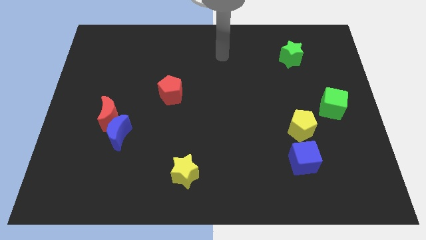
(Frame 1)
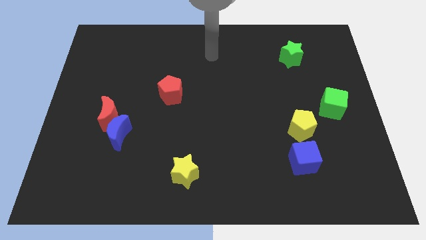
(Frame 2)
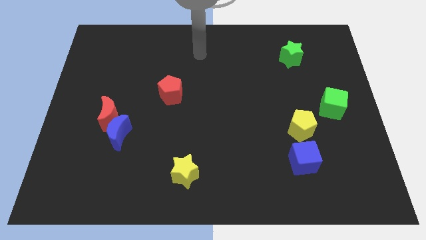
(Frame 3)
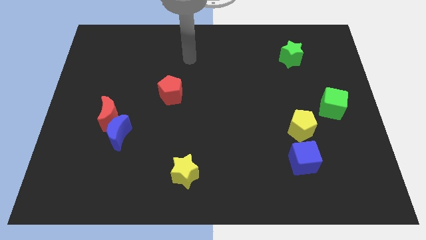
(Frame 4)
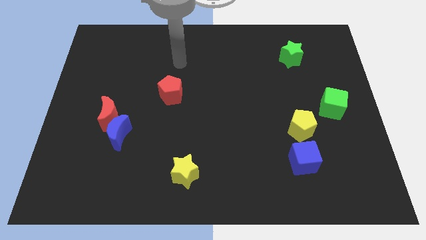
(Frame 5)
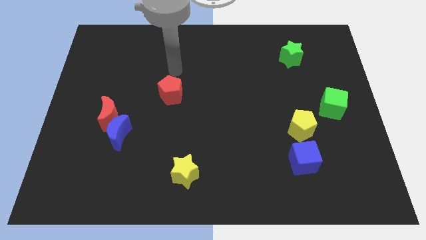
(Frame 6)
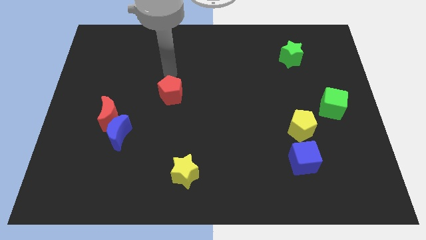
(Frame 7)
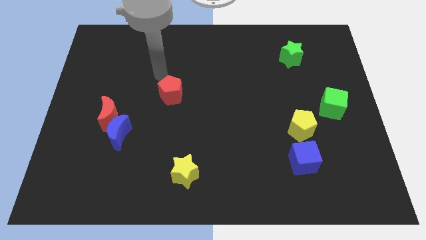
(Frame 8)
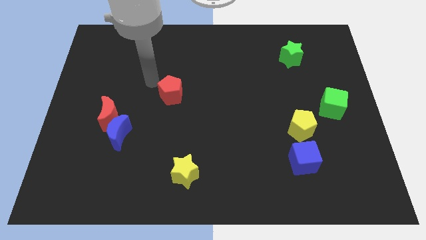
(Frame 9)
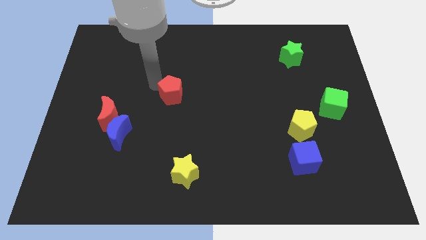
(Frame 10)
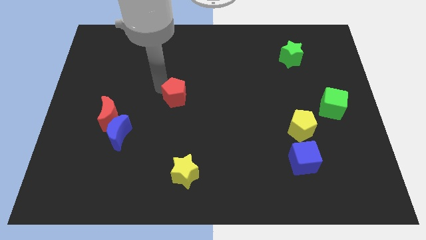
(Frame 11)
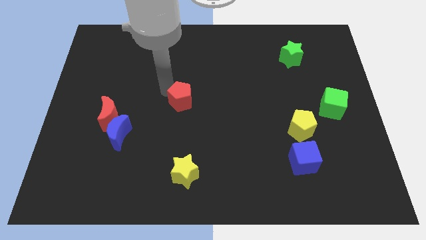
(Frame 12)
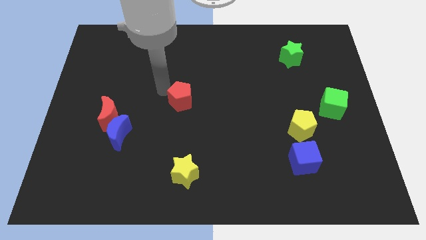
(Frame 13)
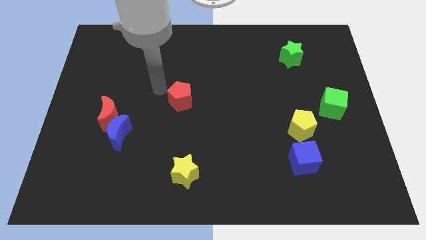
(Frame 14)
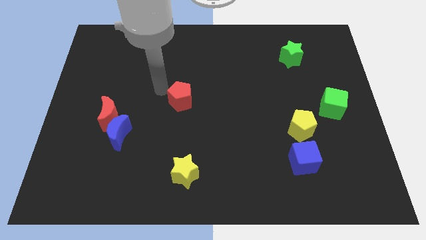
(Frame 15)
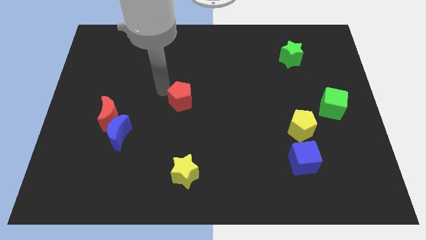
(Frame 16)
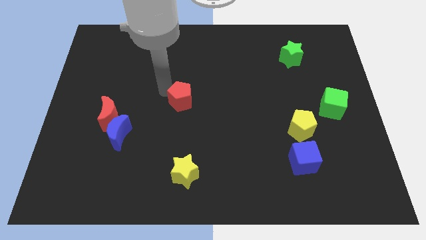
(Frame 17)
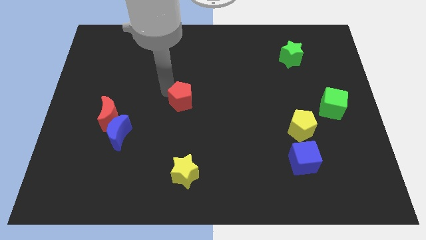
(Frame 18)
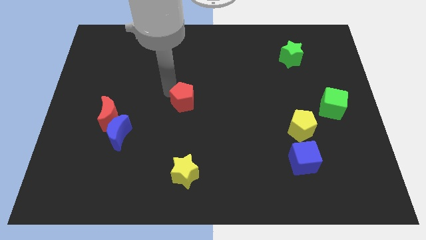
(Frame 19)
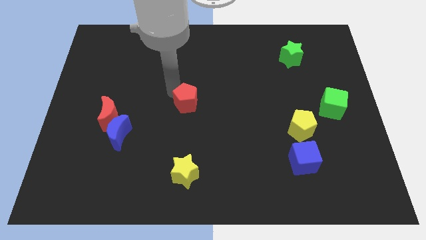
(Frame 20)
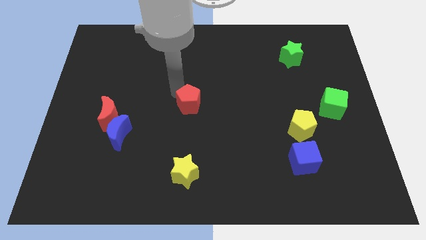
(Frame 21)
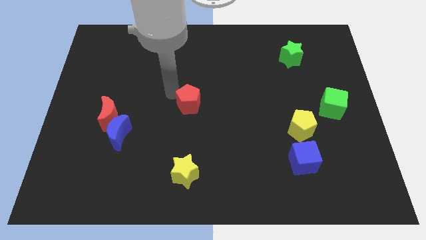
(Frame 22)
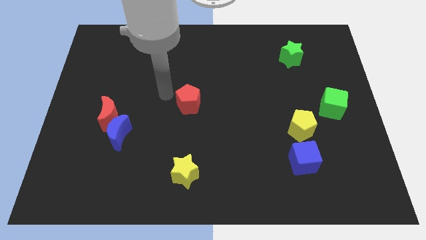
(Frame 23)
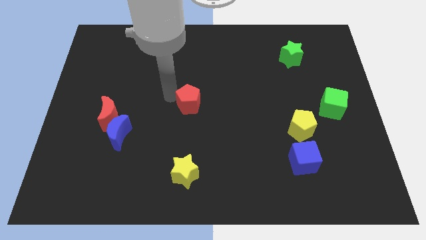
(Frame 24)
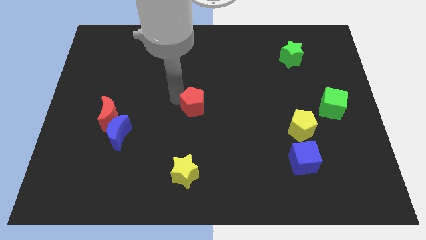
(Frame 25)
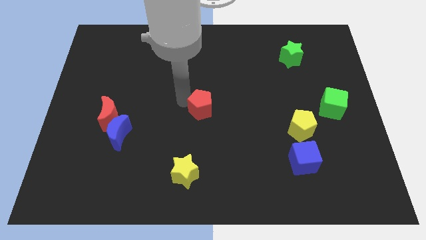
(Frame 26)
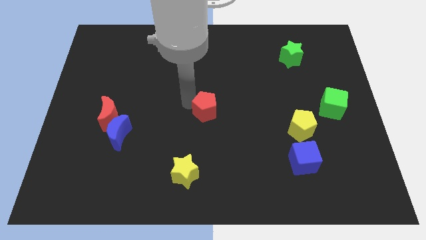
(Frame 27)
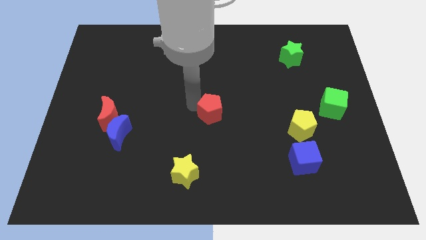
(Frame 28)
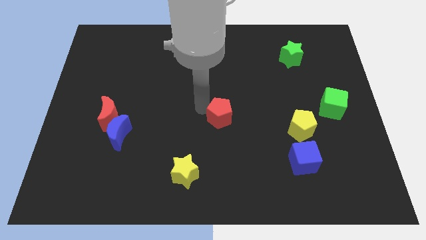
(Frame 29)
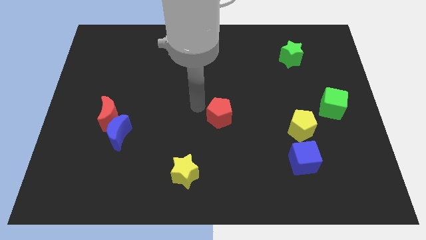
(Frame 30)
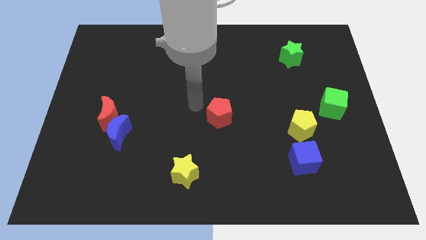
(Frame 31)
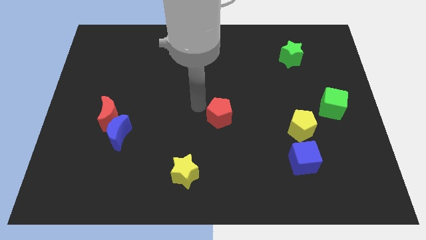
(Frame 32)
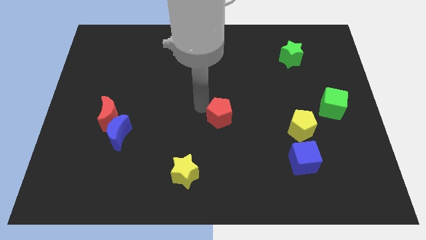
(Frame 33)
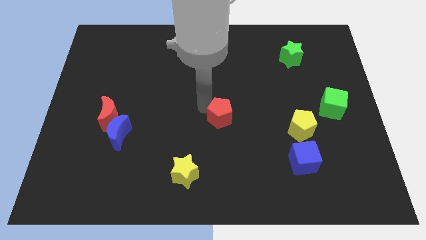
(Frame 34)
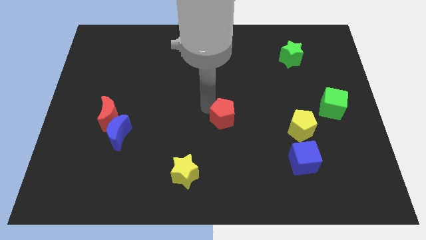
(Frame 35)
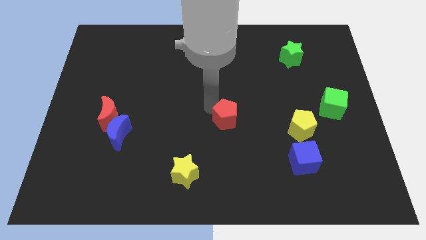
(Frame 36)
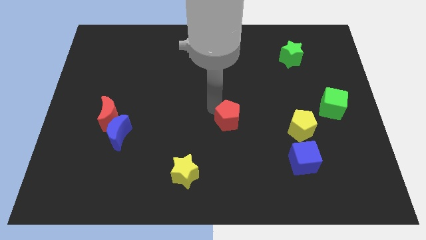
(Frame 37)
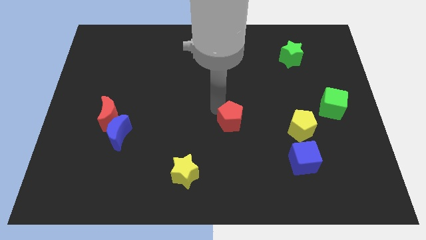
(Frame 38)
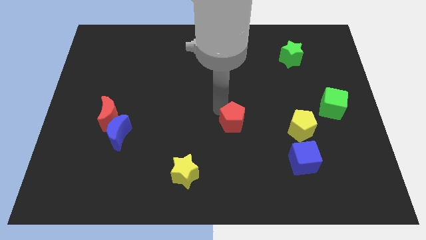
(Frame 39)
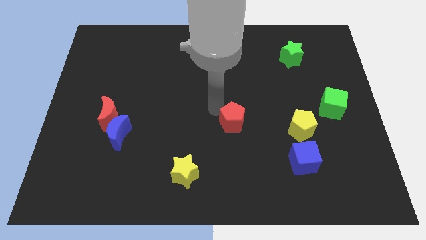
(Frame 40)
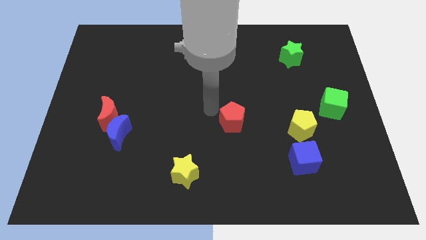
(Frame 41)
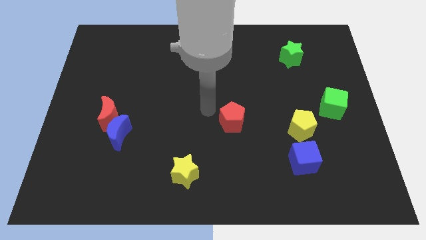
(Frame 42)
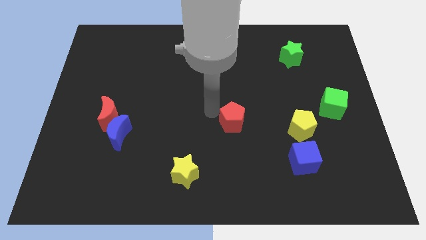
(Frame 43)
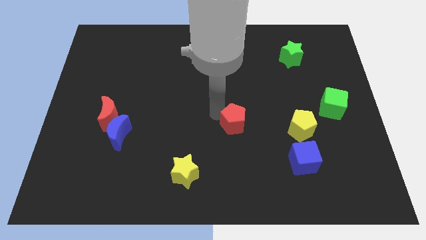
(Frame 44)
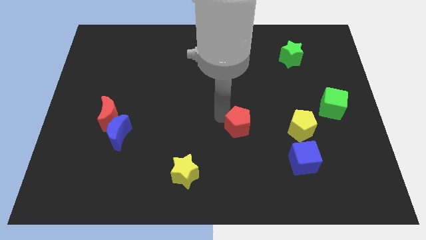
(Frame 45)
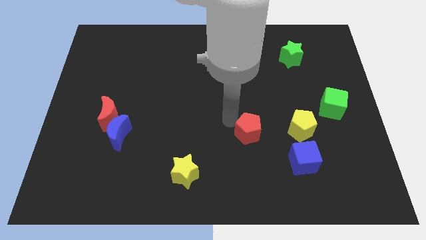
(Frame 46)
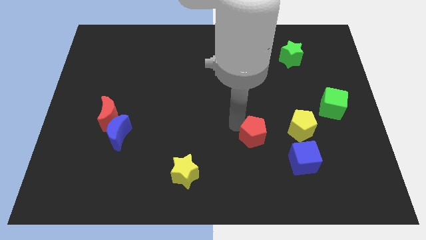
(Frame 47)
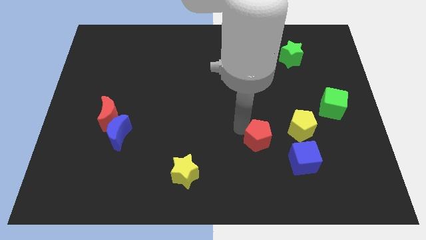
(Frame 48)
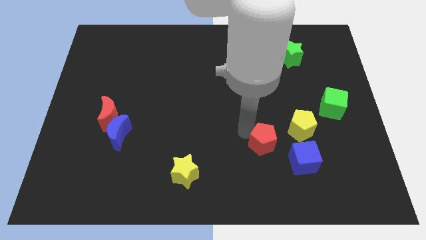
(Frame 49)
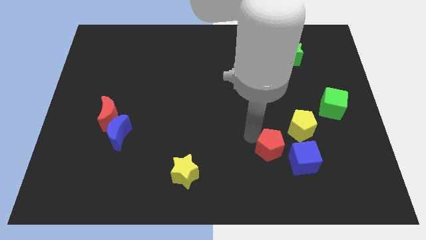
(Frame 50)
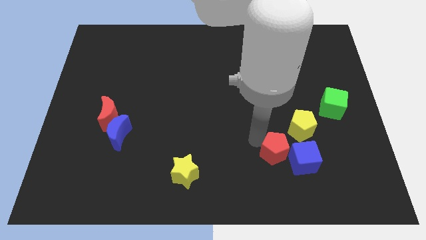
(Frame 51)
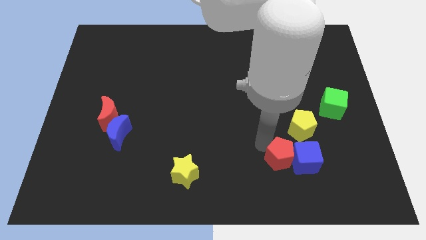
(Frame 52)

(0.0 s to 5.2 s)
move the red pentagon close to the blue cube

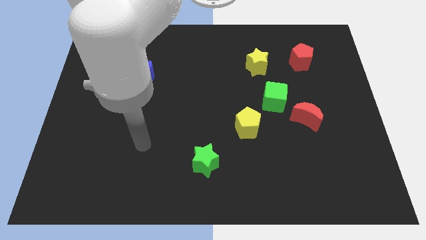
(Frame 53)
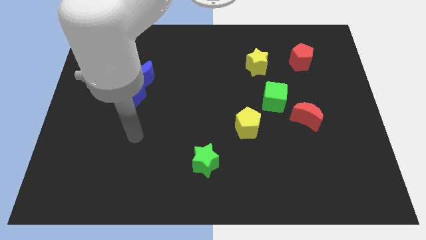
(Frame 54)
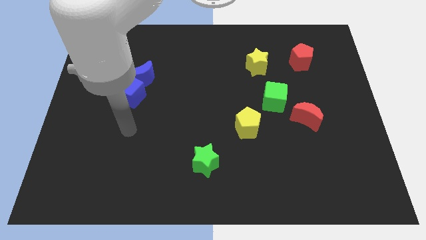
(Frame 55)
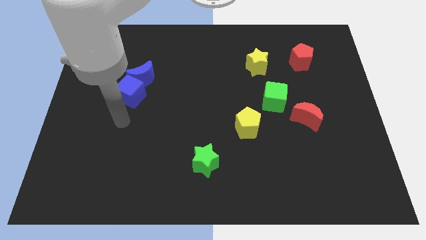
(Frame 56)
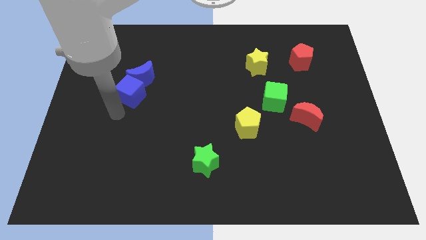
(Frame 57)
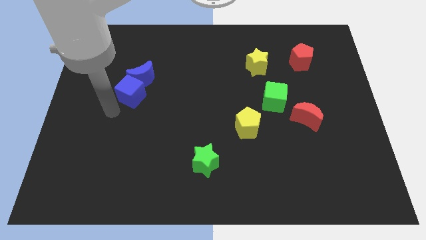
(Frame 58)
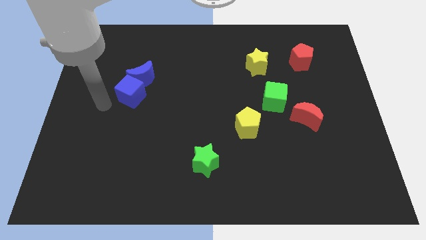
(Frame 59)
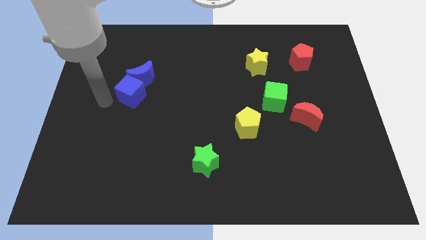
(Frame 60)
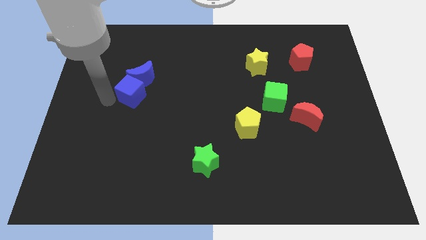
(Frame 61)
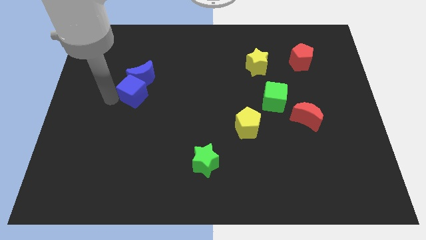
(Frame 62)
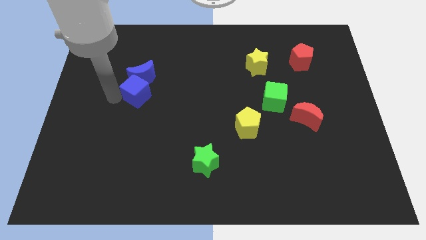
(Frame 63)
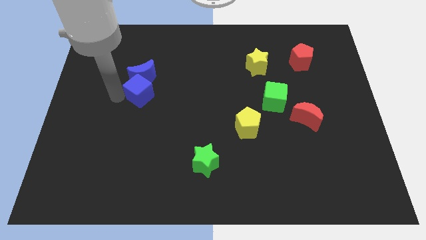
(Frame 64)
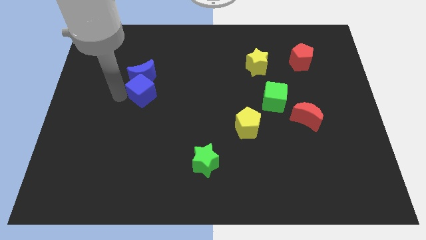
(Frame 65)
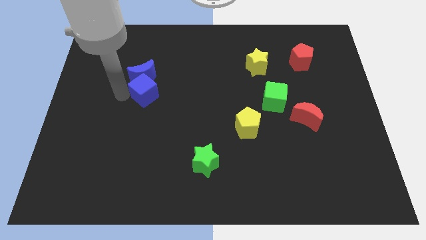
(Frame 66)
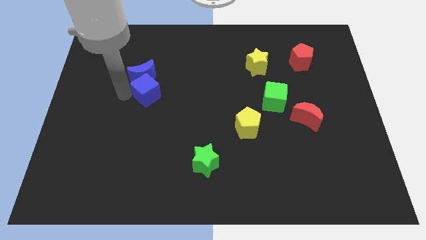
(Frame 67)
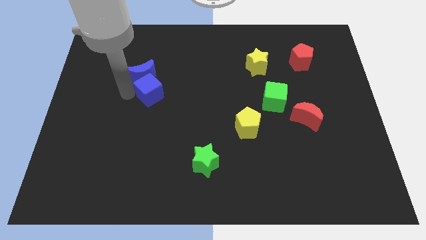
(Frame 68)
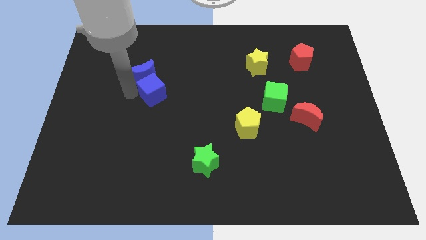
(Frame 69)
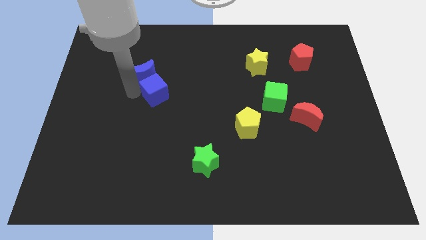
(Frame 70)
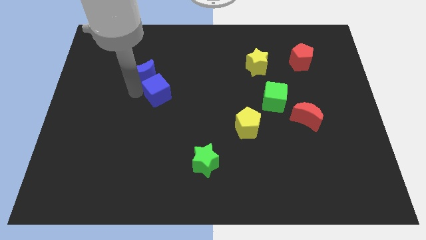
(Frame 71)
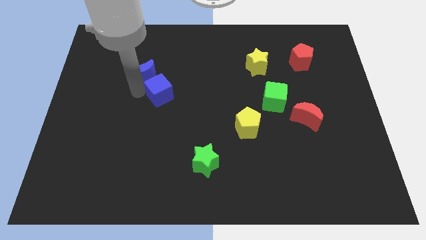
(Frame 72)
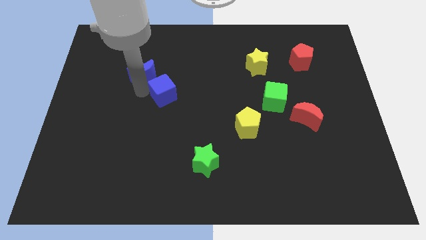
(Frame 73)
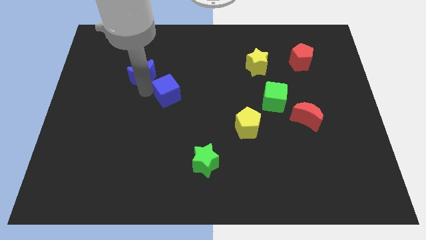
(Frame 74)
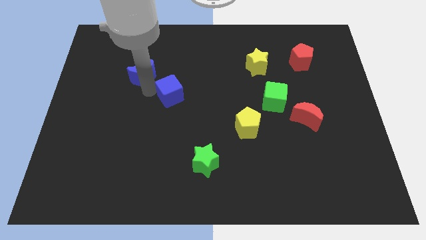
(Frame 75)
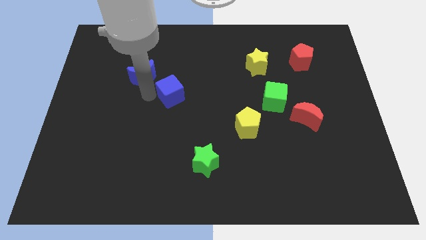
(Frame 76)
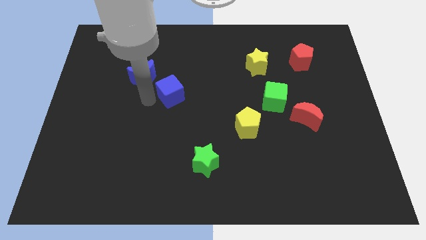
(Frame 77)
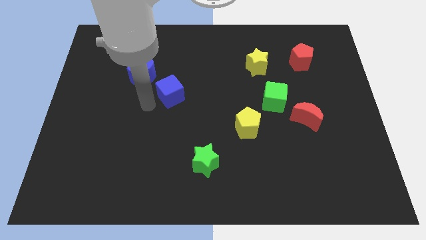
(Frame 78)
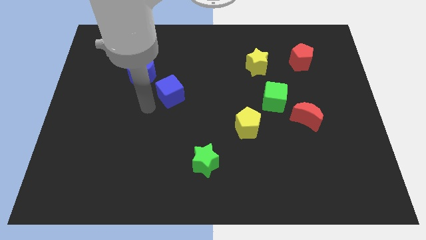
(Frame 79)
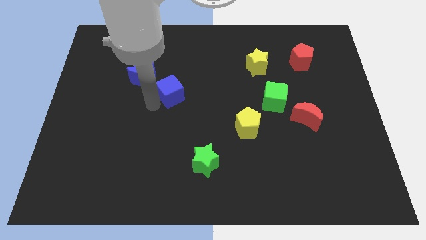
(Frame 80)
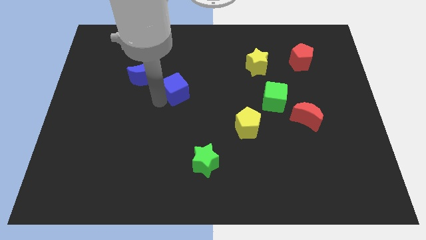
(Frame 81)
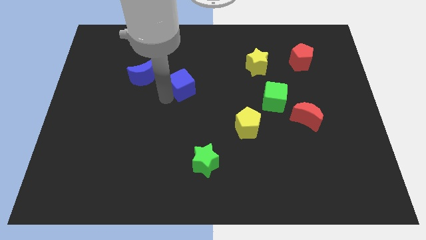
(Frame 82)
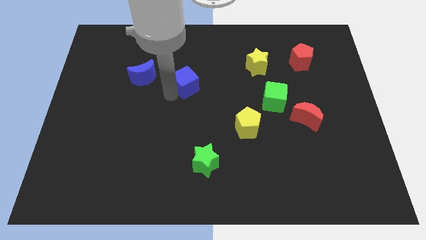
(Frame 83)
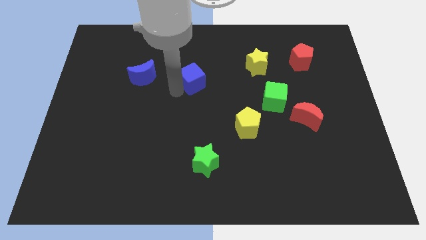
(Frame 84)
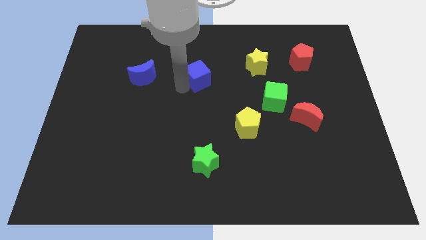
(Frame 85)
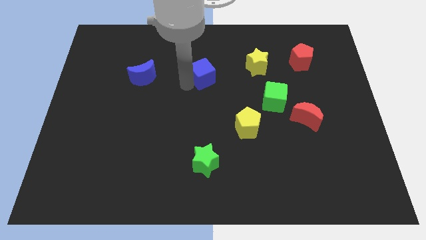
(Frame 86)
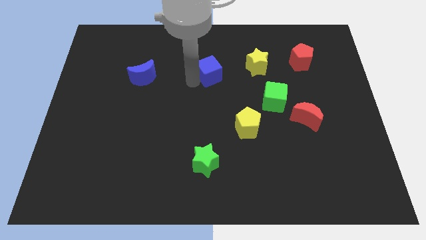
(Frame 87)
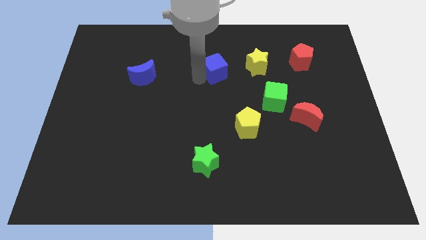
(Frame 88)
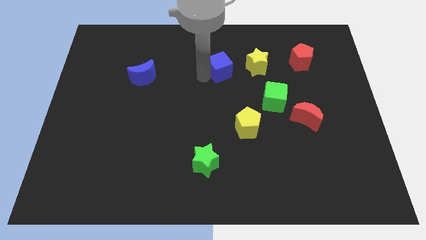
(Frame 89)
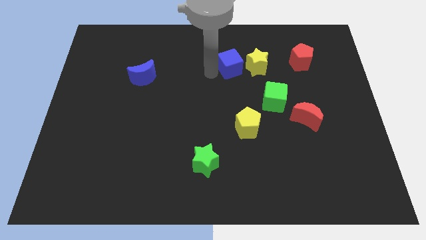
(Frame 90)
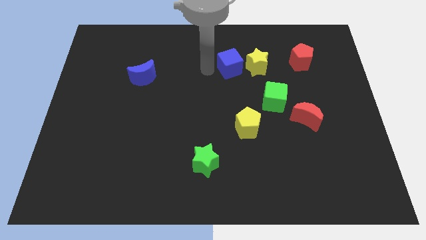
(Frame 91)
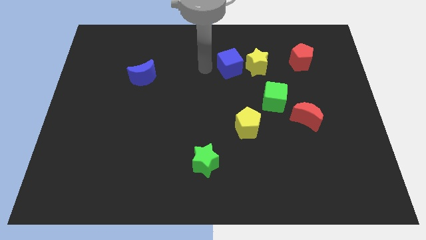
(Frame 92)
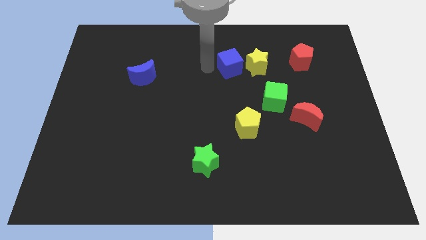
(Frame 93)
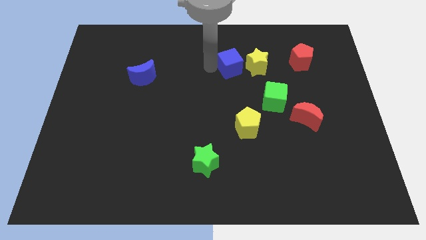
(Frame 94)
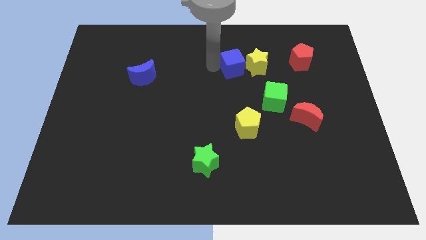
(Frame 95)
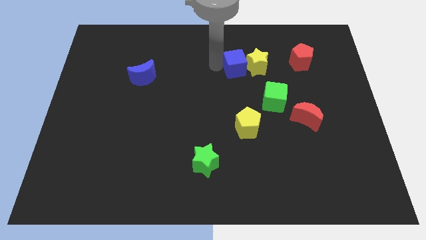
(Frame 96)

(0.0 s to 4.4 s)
slide the blue cube close to the yellow star
